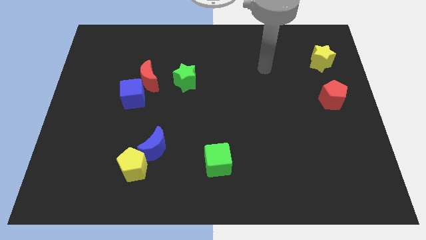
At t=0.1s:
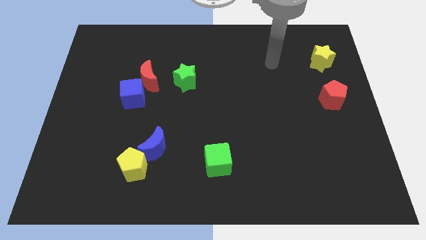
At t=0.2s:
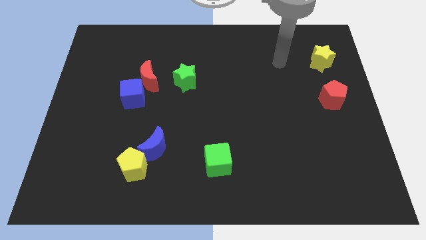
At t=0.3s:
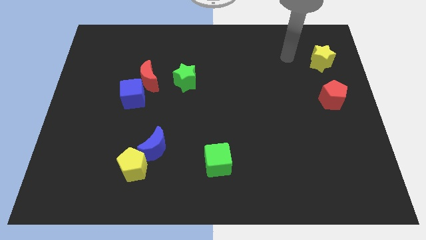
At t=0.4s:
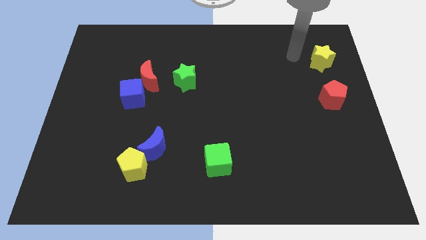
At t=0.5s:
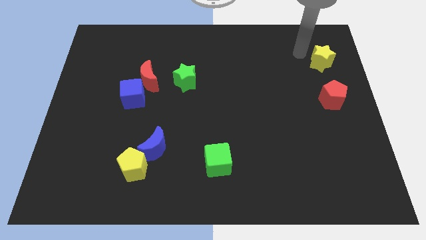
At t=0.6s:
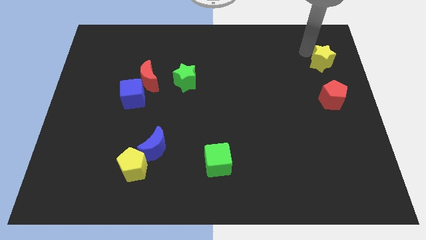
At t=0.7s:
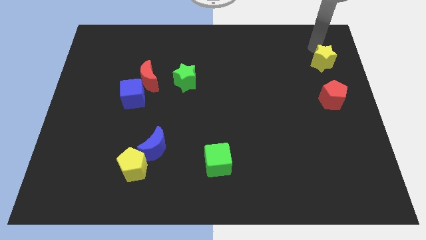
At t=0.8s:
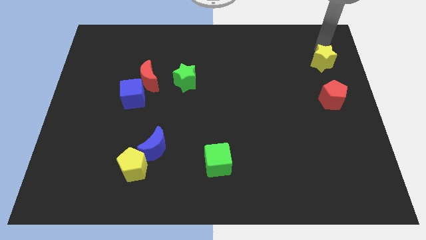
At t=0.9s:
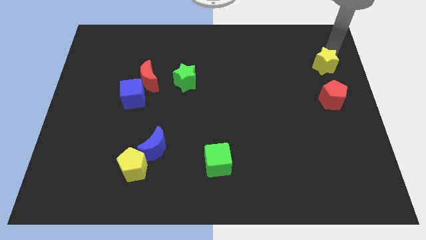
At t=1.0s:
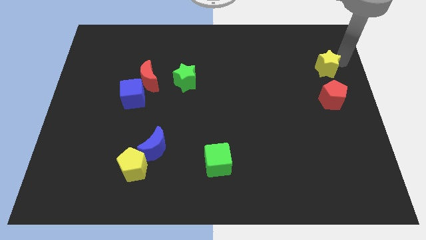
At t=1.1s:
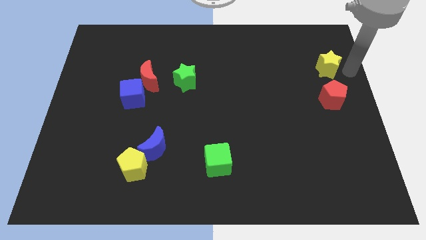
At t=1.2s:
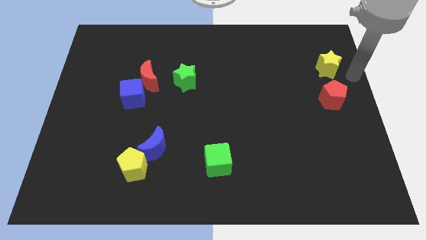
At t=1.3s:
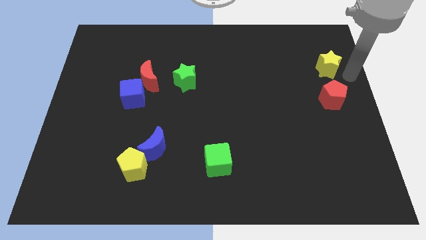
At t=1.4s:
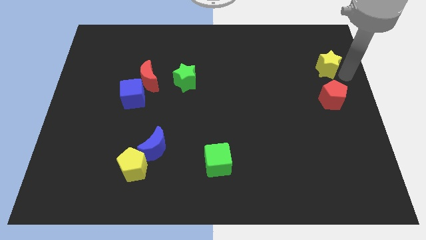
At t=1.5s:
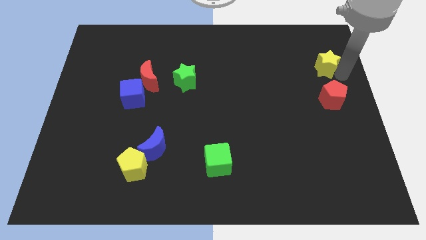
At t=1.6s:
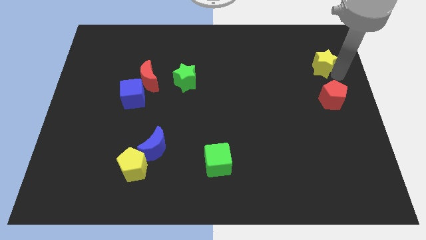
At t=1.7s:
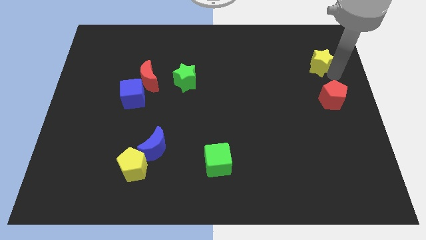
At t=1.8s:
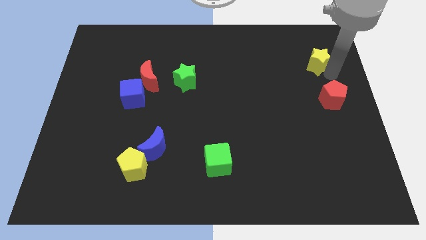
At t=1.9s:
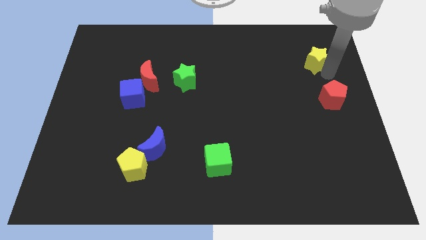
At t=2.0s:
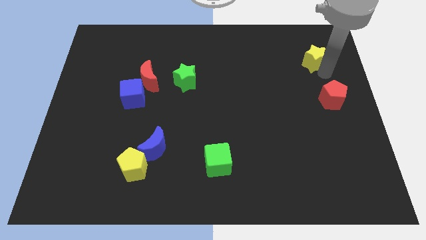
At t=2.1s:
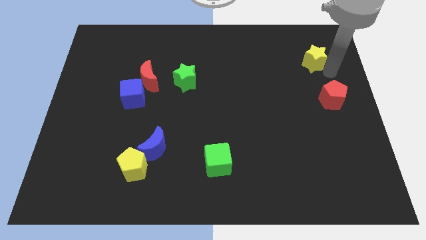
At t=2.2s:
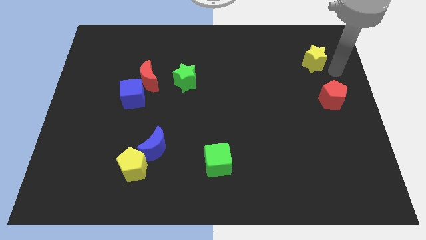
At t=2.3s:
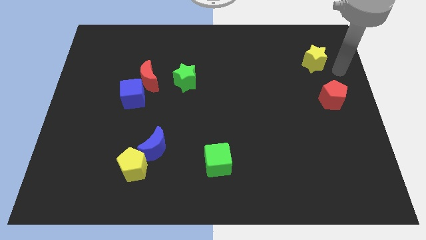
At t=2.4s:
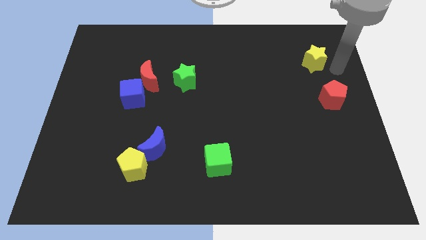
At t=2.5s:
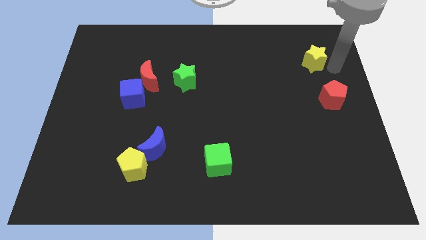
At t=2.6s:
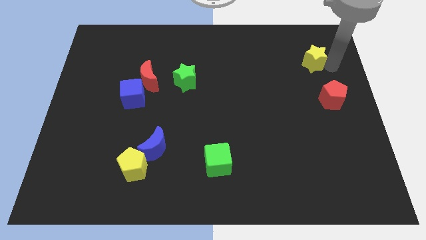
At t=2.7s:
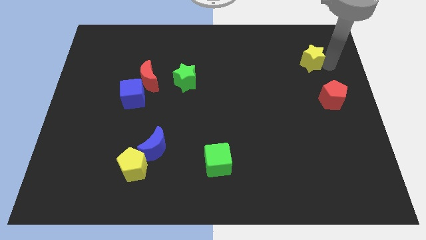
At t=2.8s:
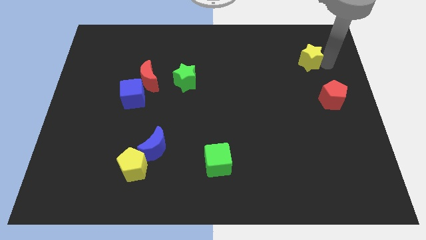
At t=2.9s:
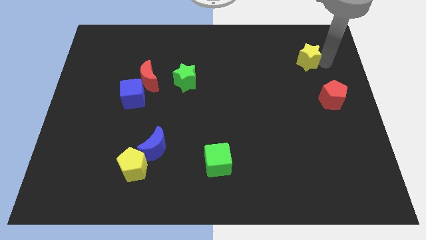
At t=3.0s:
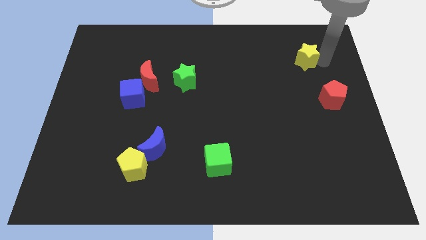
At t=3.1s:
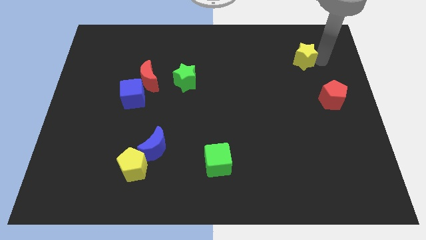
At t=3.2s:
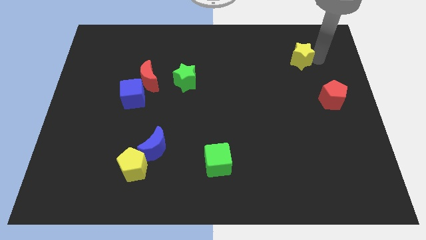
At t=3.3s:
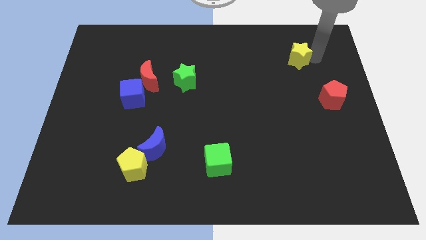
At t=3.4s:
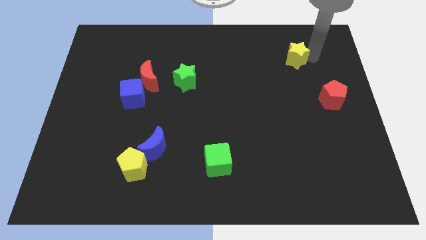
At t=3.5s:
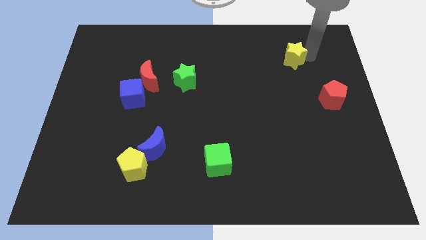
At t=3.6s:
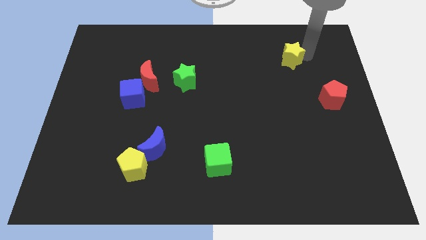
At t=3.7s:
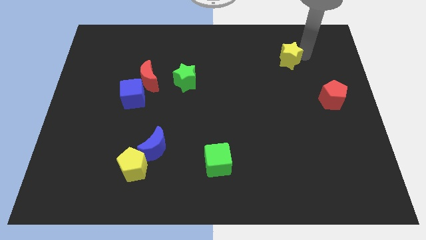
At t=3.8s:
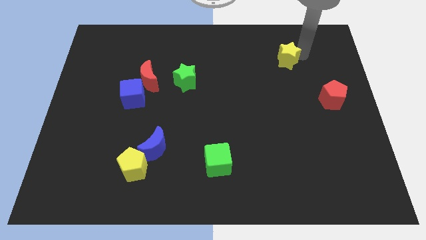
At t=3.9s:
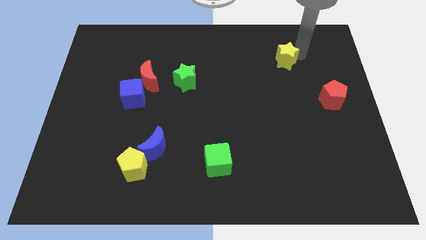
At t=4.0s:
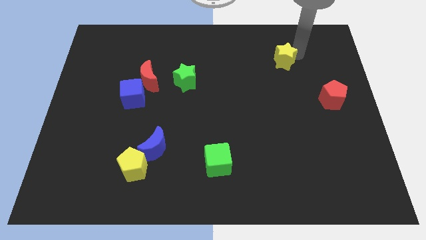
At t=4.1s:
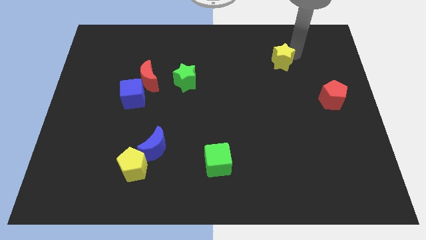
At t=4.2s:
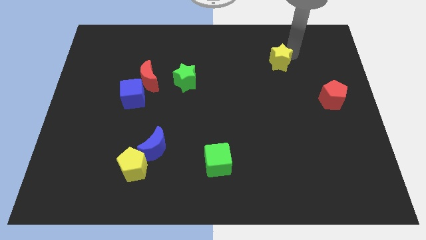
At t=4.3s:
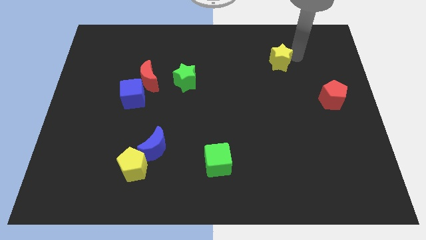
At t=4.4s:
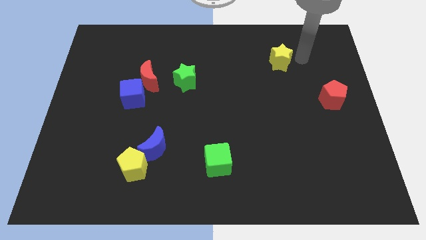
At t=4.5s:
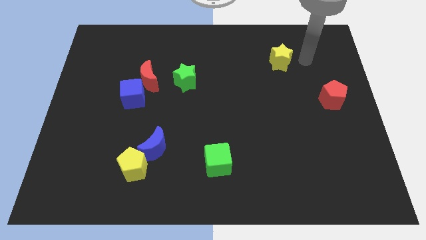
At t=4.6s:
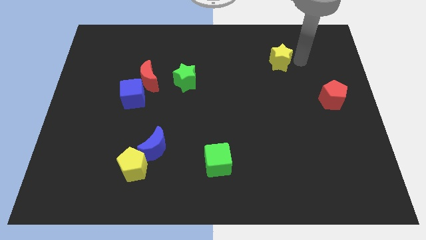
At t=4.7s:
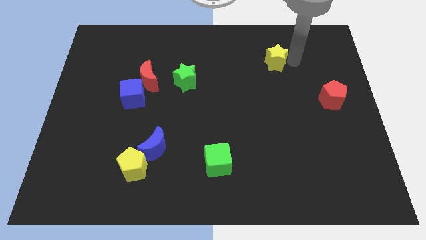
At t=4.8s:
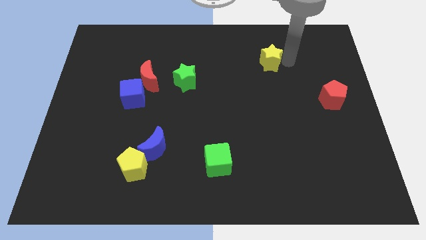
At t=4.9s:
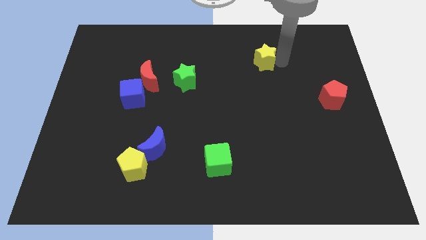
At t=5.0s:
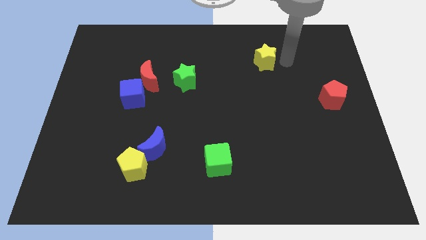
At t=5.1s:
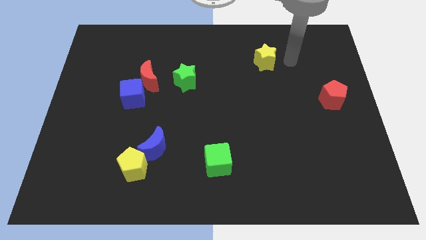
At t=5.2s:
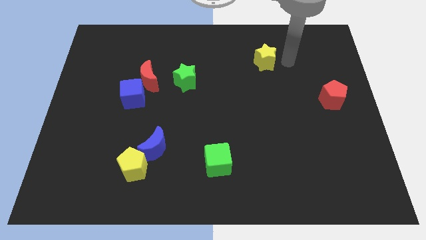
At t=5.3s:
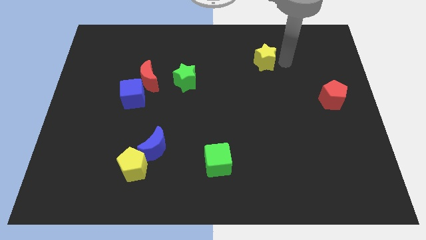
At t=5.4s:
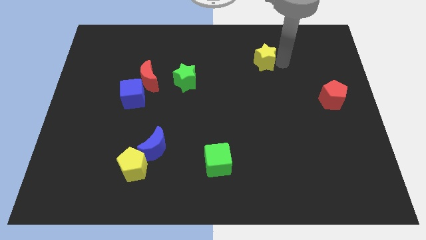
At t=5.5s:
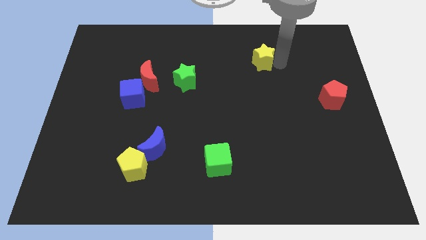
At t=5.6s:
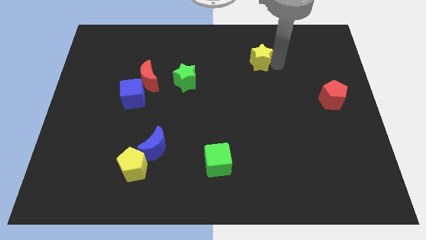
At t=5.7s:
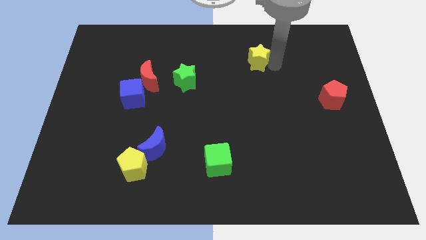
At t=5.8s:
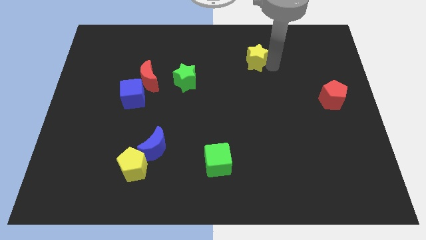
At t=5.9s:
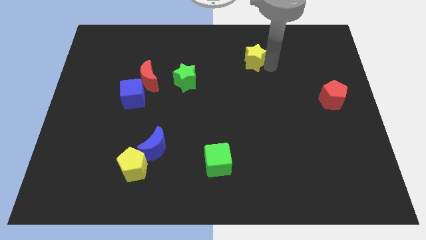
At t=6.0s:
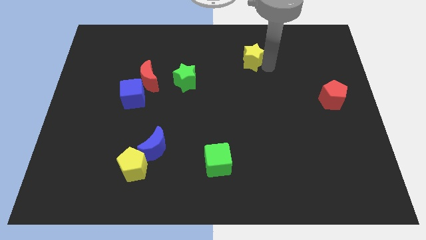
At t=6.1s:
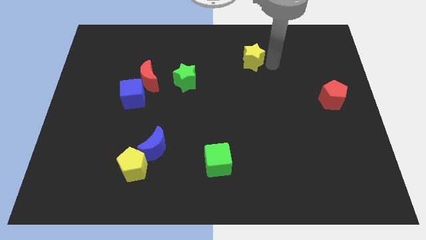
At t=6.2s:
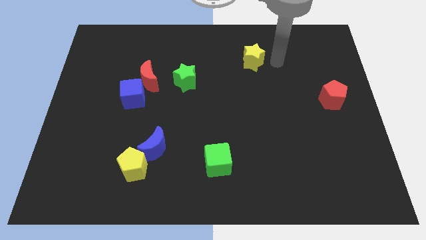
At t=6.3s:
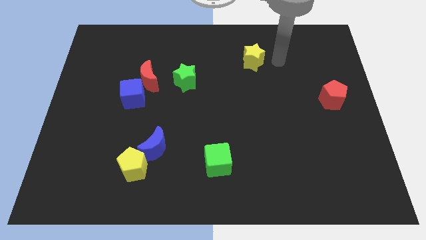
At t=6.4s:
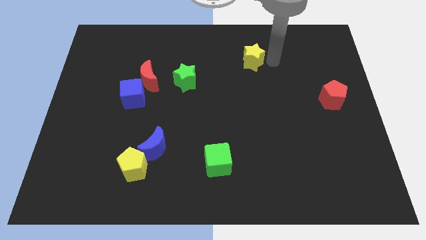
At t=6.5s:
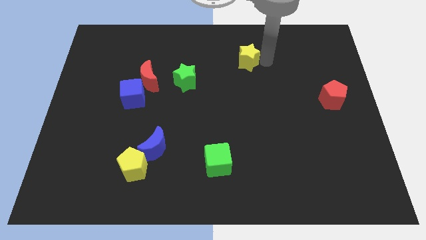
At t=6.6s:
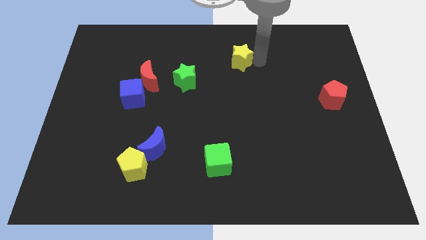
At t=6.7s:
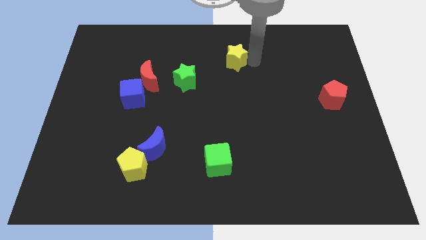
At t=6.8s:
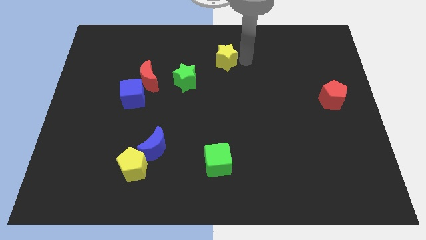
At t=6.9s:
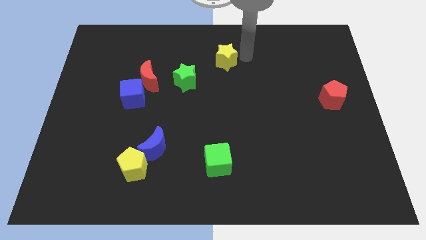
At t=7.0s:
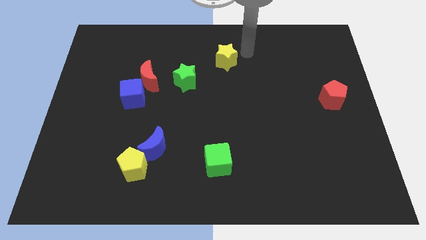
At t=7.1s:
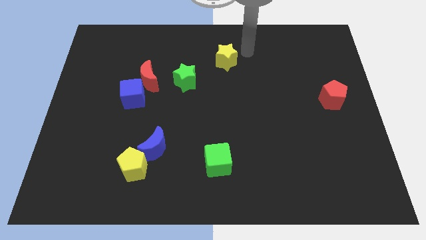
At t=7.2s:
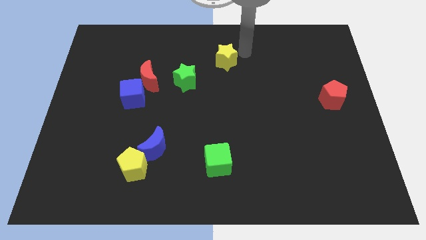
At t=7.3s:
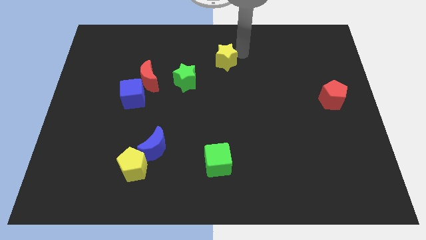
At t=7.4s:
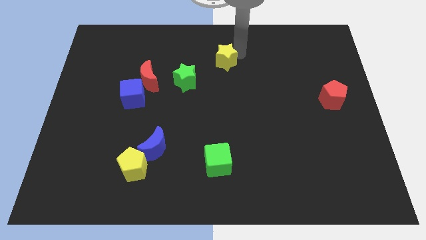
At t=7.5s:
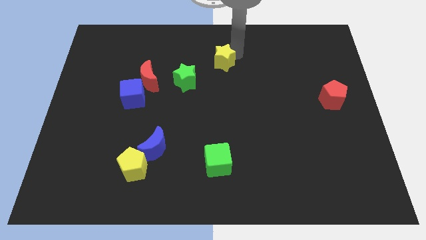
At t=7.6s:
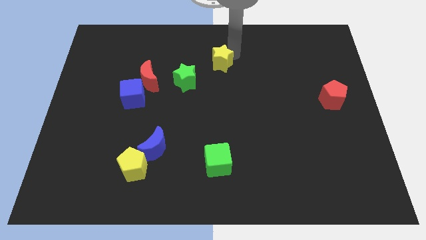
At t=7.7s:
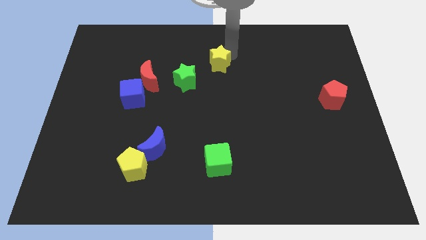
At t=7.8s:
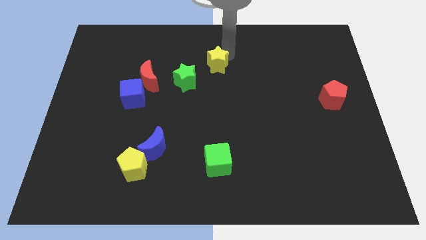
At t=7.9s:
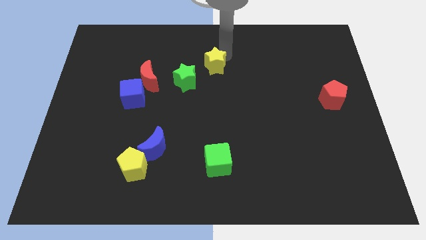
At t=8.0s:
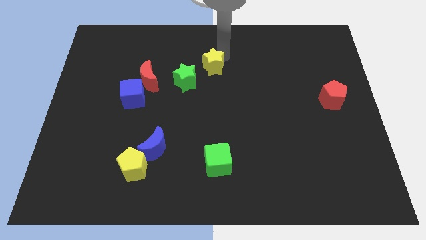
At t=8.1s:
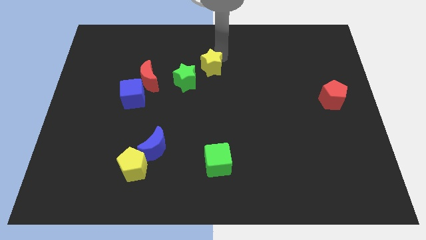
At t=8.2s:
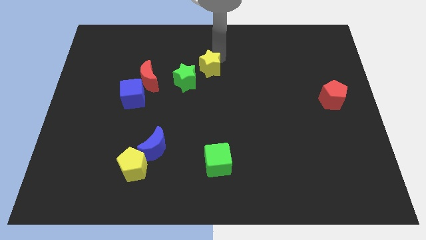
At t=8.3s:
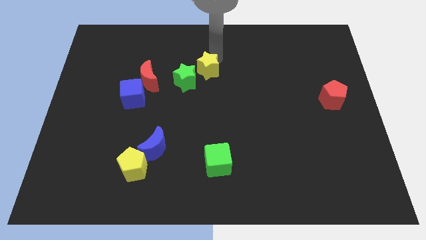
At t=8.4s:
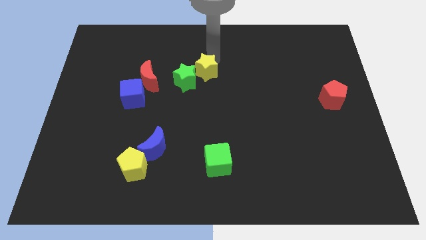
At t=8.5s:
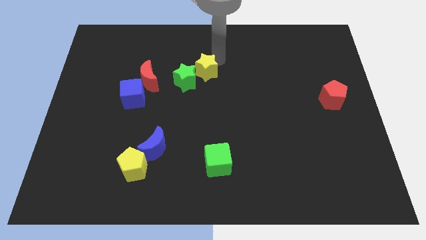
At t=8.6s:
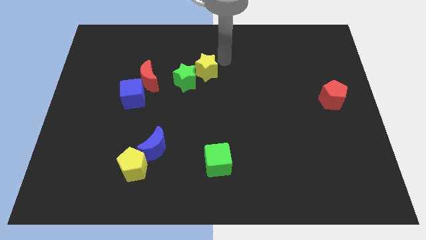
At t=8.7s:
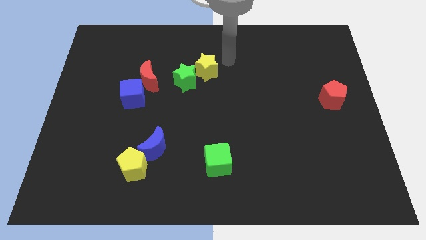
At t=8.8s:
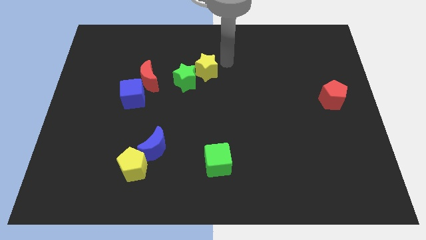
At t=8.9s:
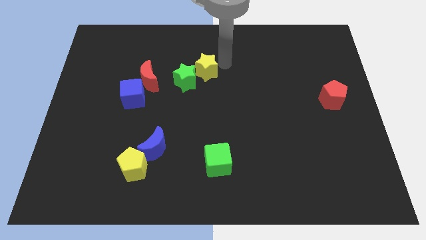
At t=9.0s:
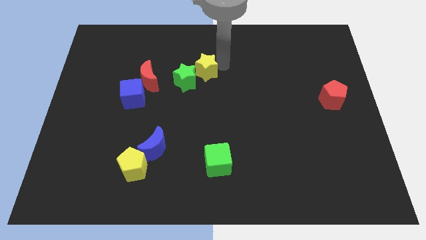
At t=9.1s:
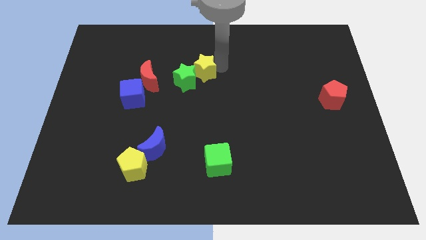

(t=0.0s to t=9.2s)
push the yellow star close to the green star
